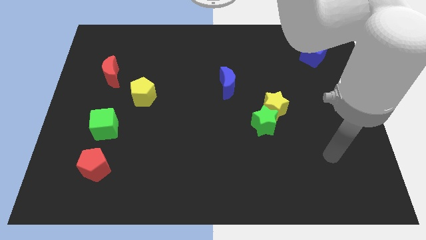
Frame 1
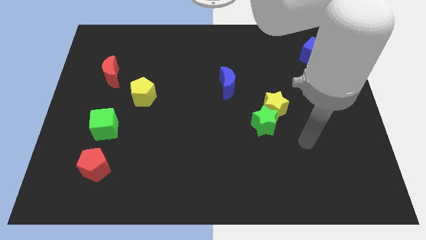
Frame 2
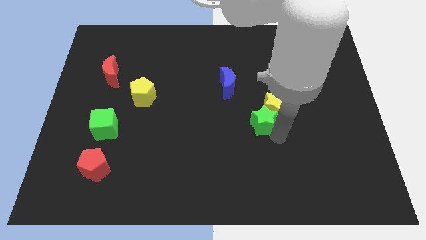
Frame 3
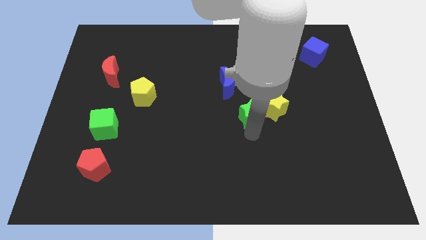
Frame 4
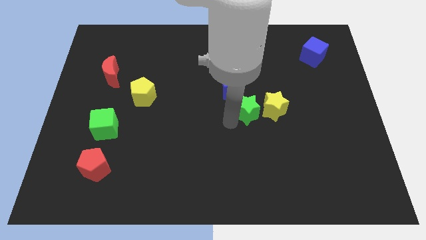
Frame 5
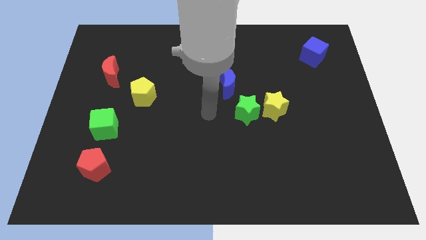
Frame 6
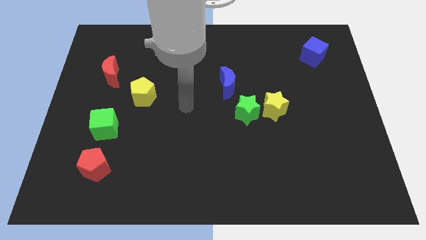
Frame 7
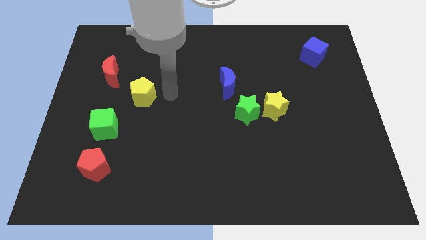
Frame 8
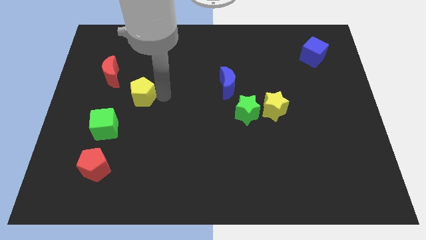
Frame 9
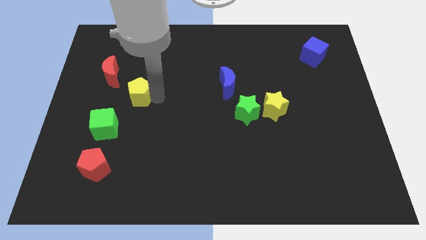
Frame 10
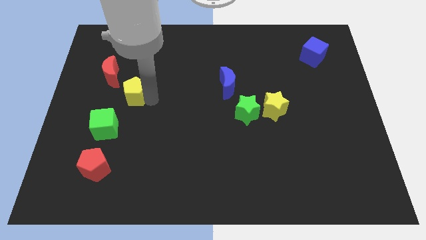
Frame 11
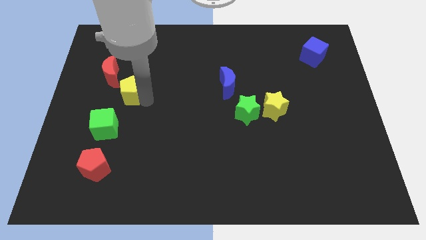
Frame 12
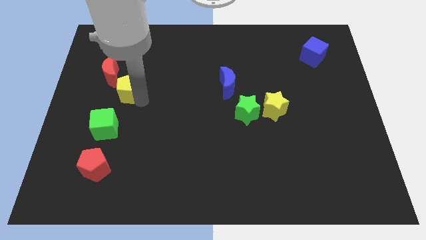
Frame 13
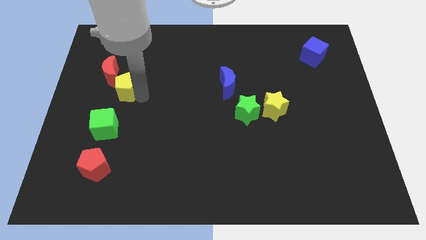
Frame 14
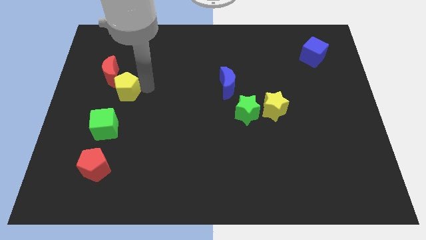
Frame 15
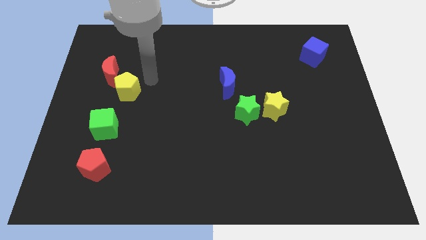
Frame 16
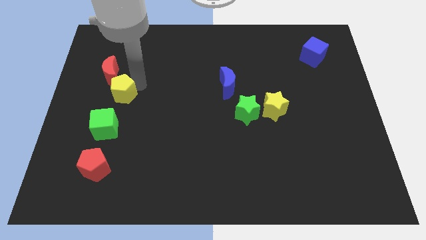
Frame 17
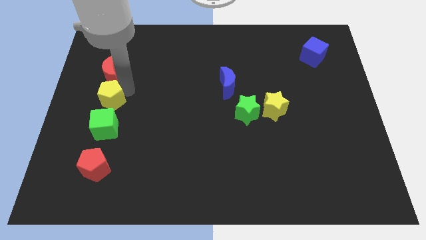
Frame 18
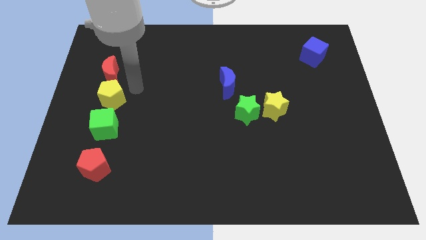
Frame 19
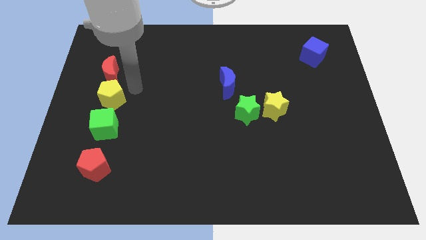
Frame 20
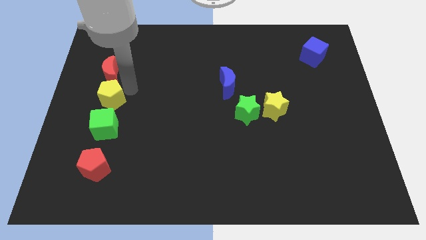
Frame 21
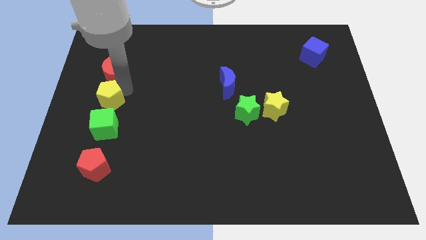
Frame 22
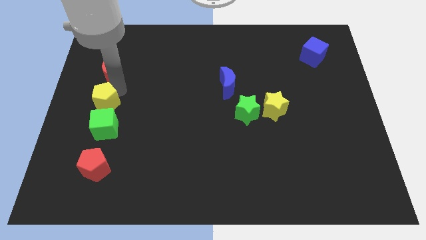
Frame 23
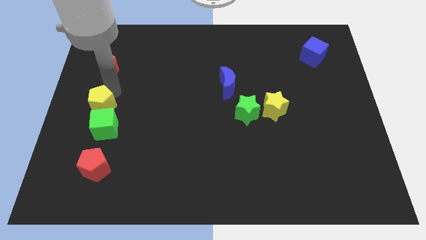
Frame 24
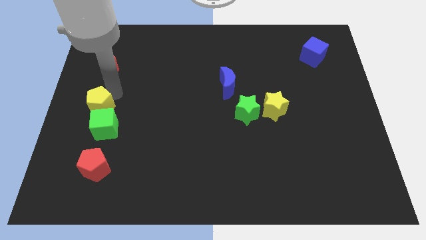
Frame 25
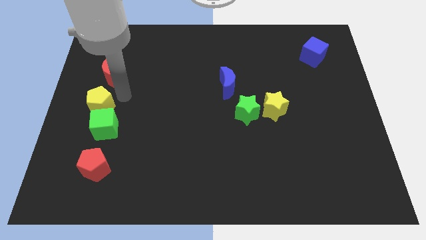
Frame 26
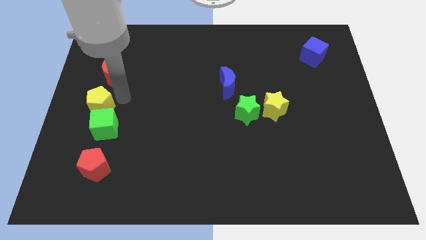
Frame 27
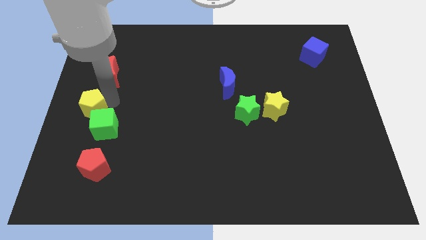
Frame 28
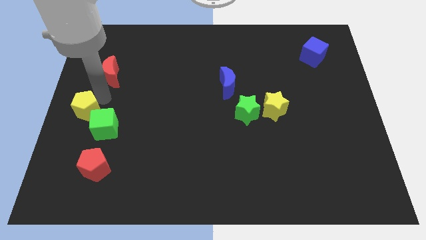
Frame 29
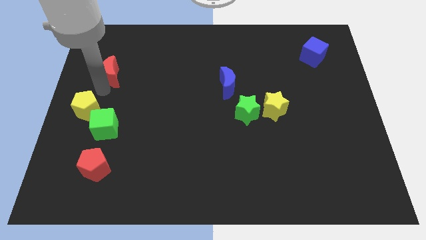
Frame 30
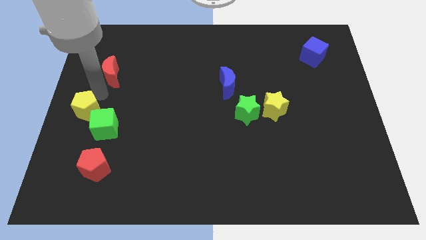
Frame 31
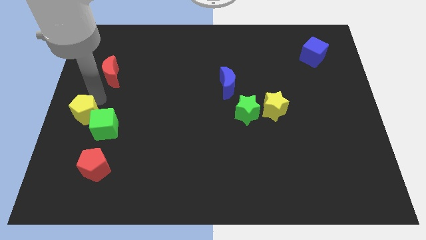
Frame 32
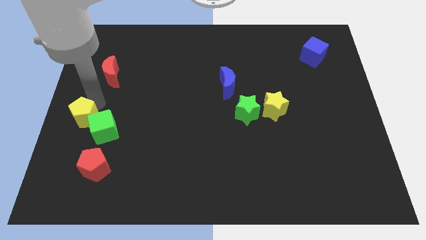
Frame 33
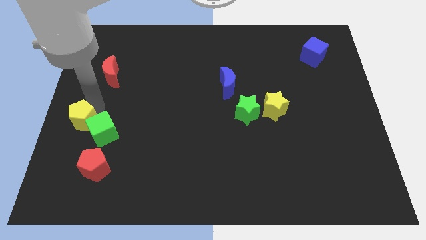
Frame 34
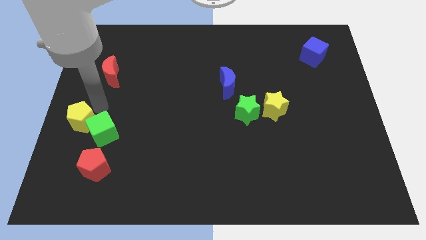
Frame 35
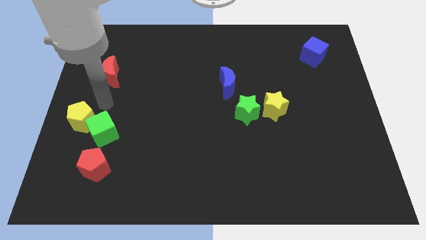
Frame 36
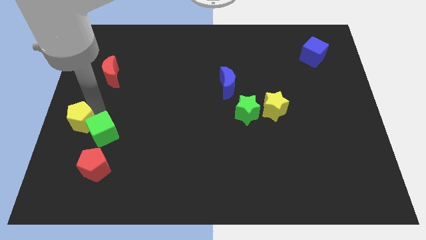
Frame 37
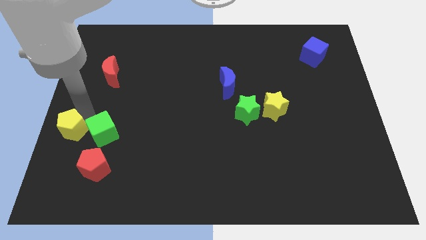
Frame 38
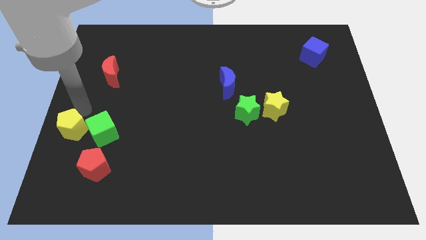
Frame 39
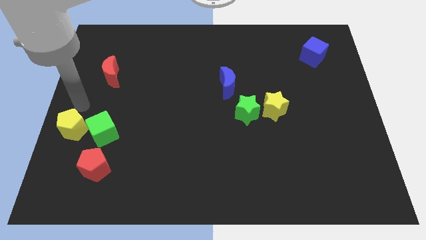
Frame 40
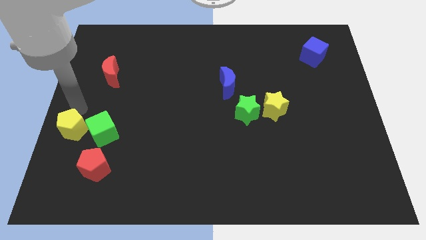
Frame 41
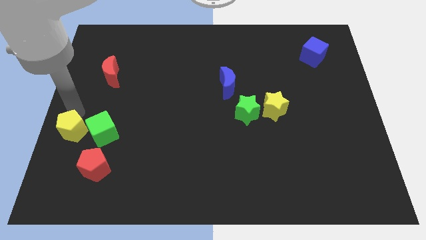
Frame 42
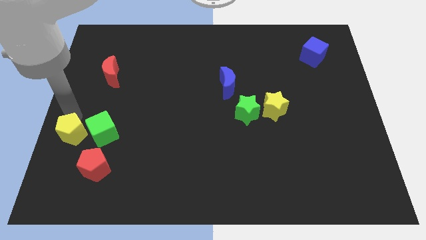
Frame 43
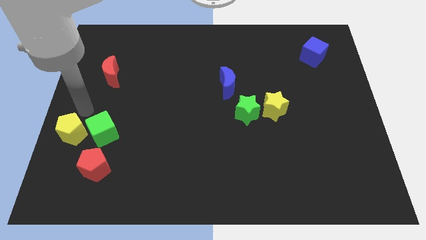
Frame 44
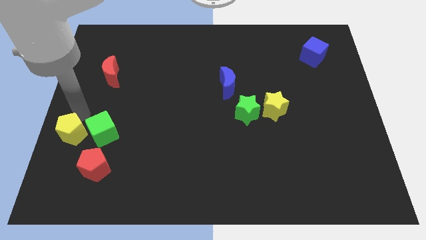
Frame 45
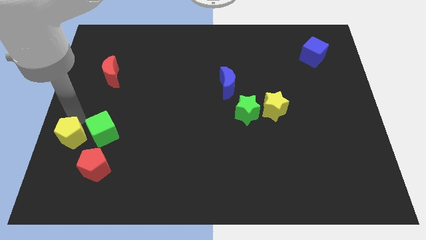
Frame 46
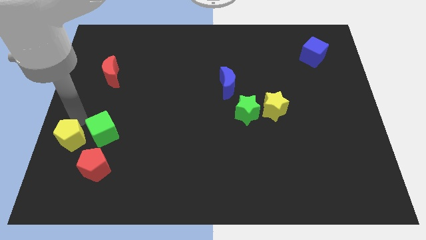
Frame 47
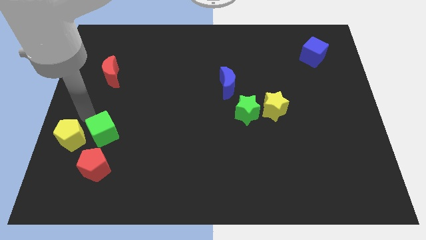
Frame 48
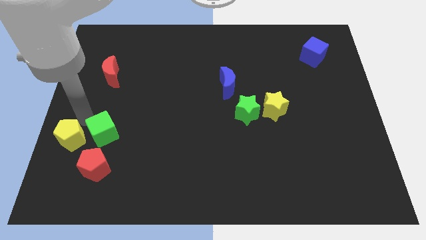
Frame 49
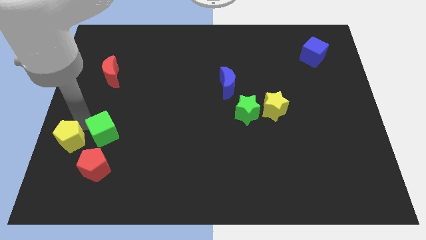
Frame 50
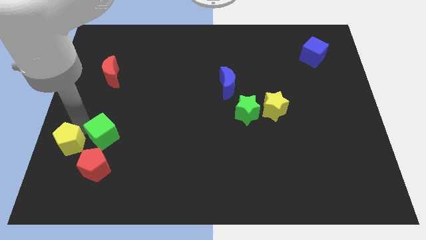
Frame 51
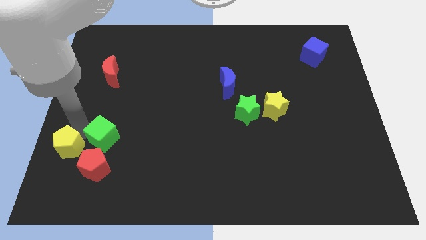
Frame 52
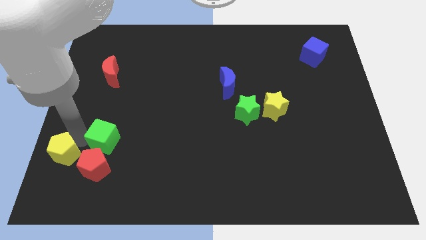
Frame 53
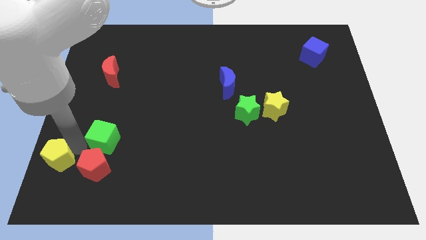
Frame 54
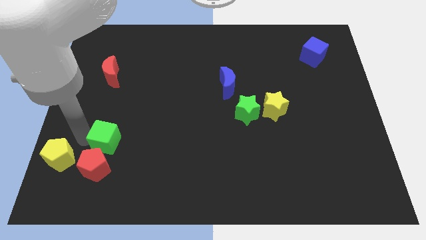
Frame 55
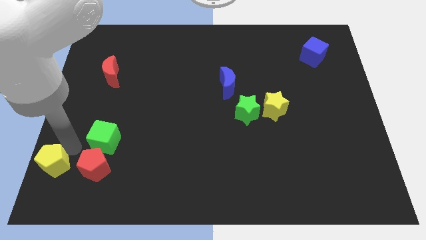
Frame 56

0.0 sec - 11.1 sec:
push the yellow pentagon to the bottom left
